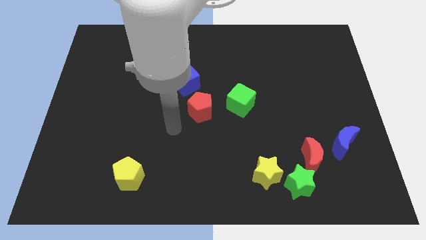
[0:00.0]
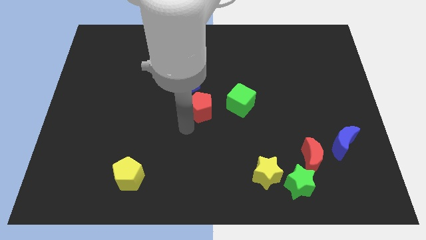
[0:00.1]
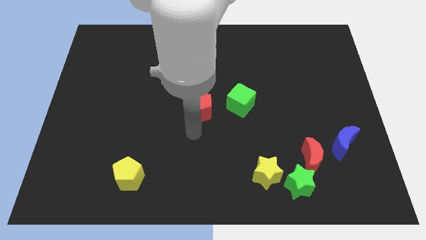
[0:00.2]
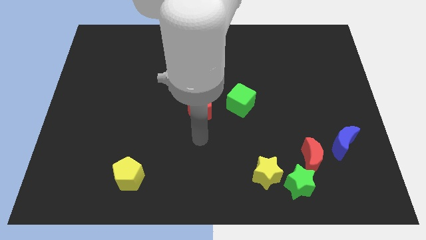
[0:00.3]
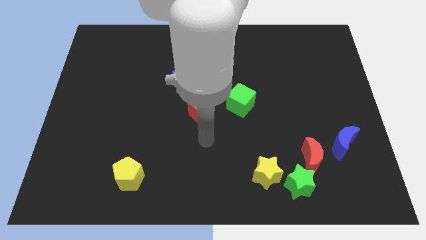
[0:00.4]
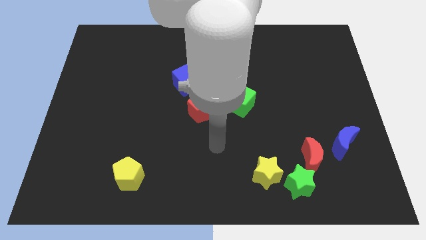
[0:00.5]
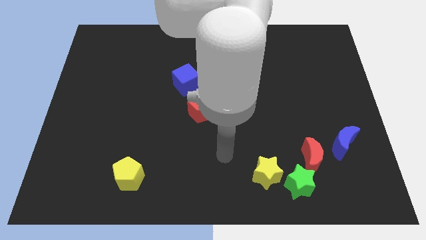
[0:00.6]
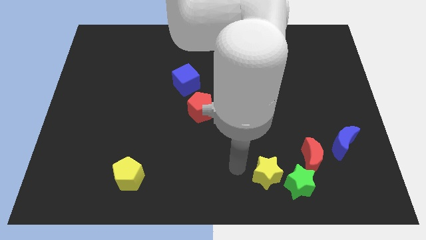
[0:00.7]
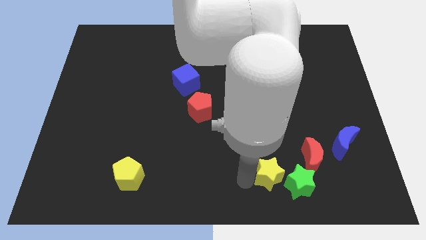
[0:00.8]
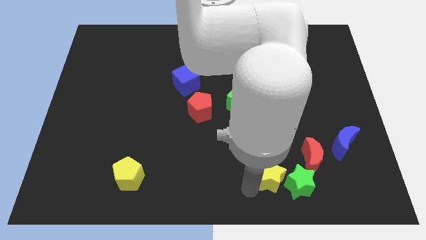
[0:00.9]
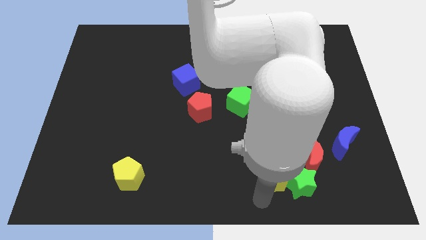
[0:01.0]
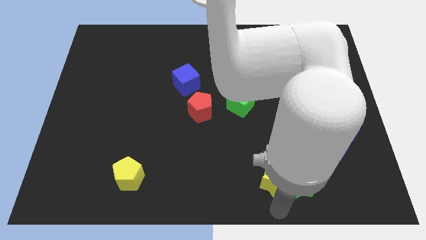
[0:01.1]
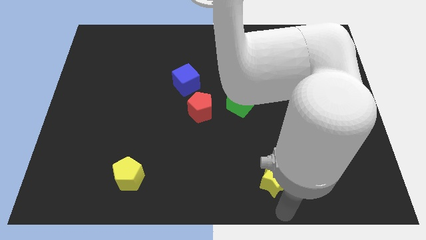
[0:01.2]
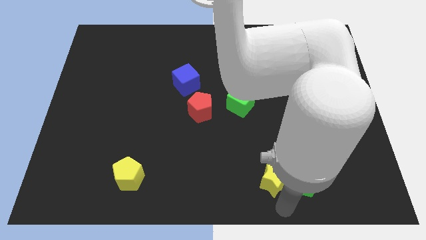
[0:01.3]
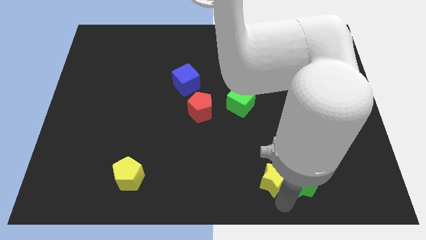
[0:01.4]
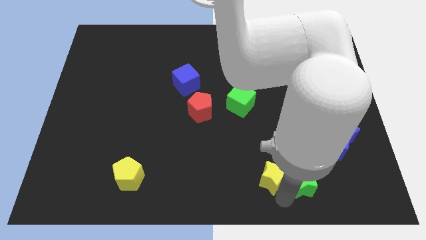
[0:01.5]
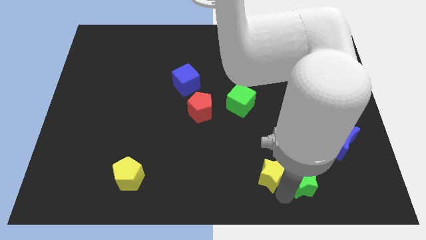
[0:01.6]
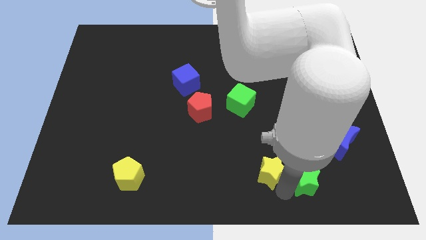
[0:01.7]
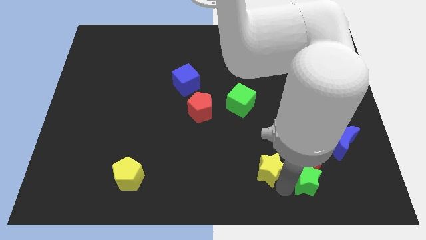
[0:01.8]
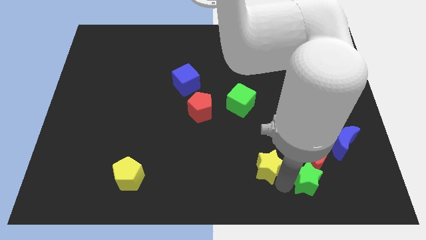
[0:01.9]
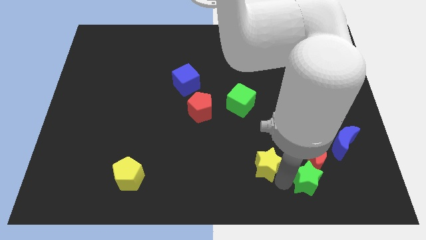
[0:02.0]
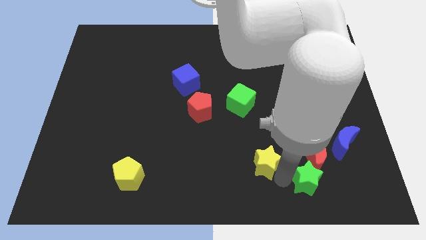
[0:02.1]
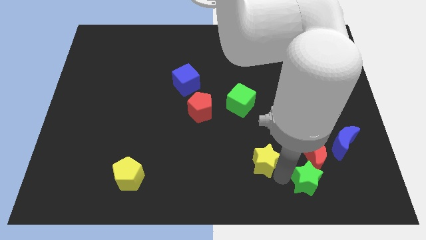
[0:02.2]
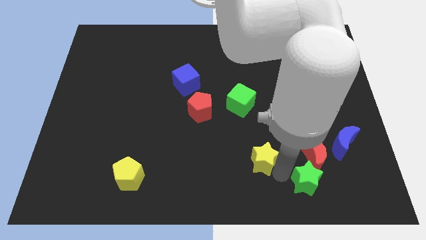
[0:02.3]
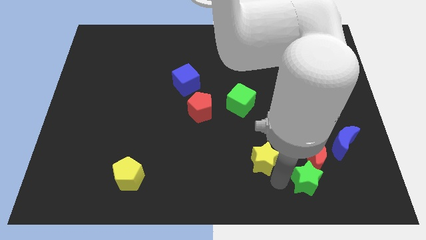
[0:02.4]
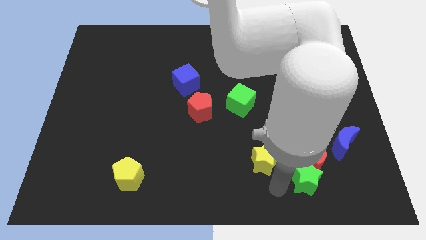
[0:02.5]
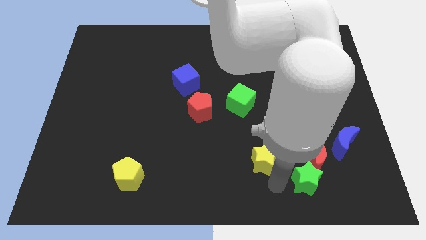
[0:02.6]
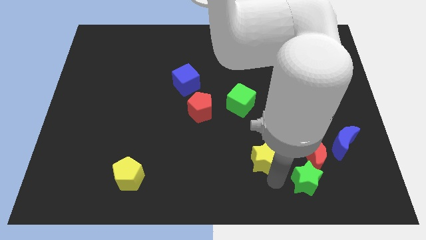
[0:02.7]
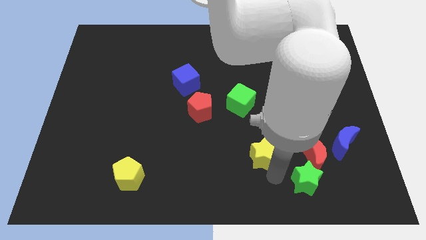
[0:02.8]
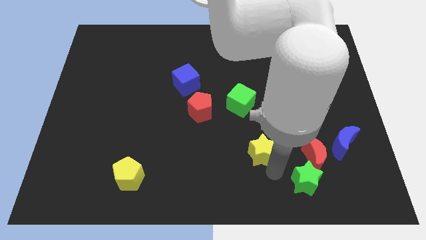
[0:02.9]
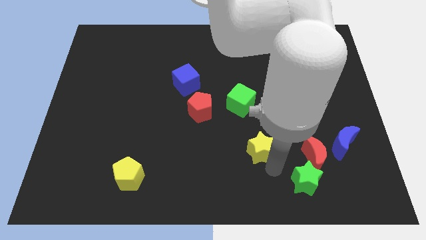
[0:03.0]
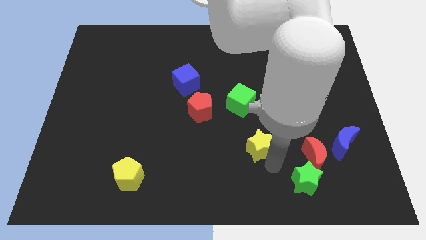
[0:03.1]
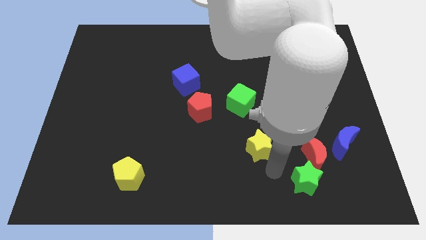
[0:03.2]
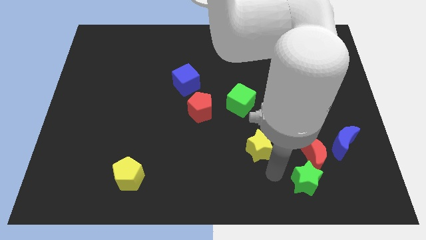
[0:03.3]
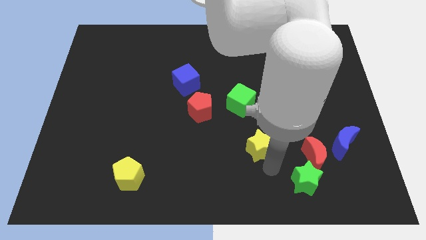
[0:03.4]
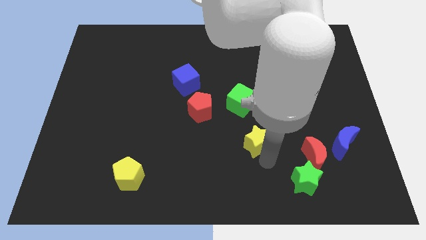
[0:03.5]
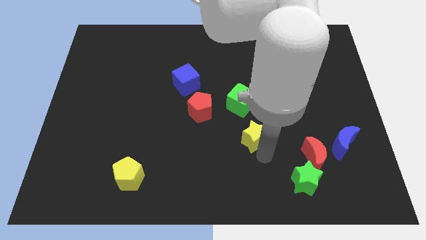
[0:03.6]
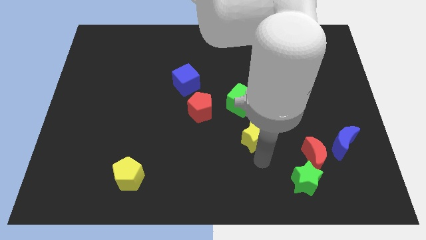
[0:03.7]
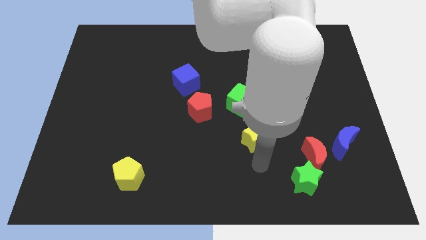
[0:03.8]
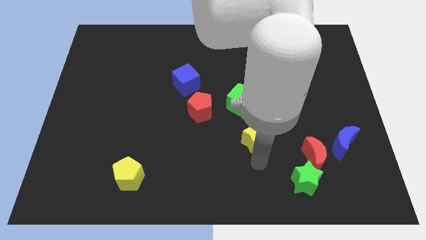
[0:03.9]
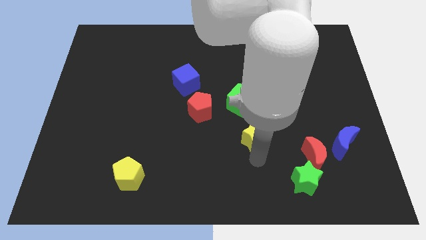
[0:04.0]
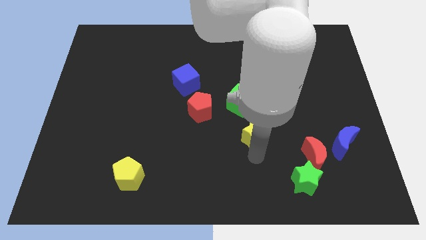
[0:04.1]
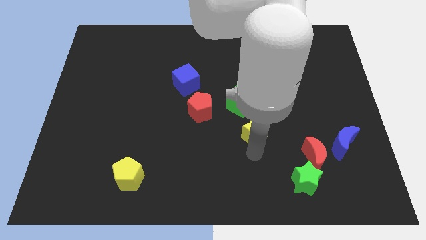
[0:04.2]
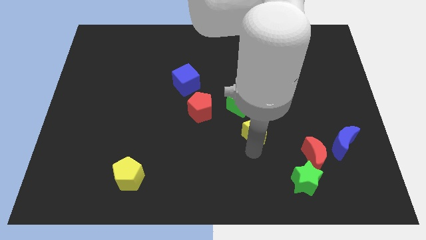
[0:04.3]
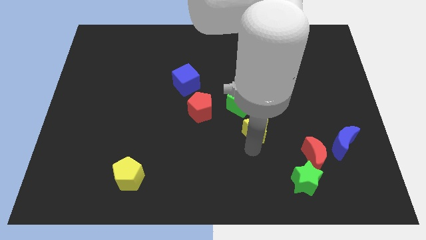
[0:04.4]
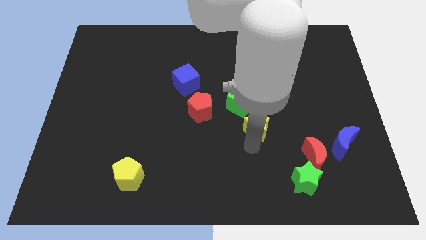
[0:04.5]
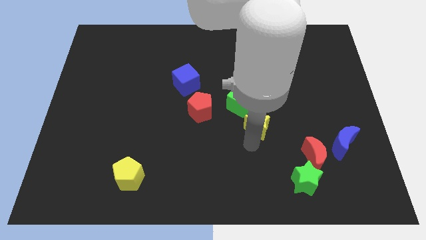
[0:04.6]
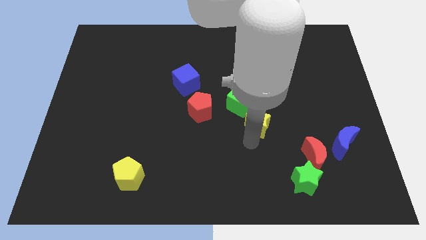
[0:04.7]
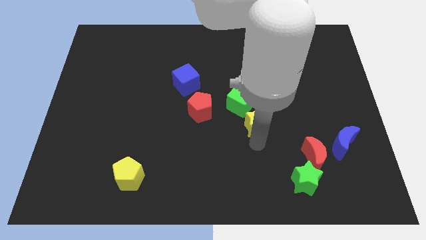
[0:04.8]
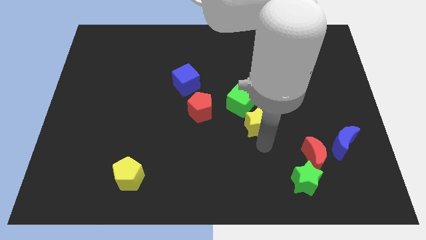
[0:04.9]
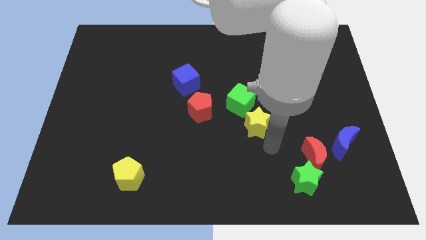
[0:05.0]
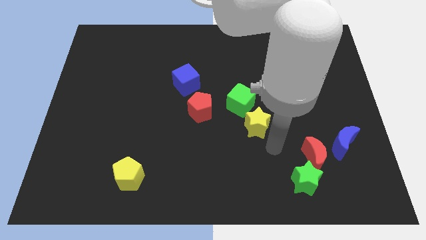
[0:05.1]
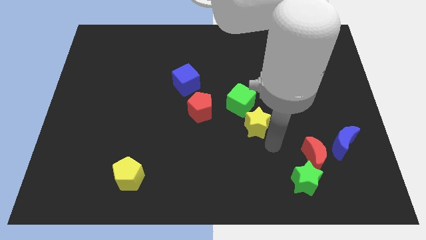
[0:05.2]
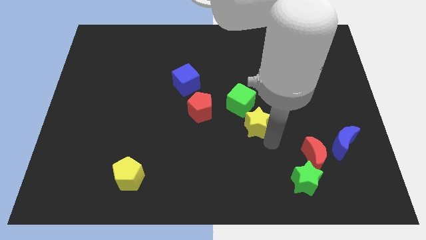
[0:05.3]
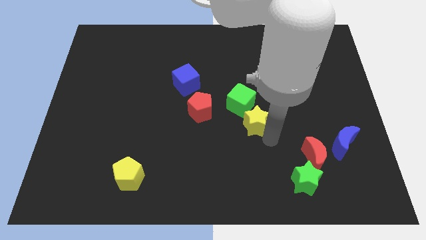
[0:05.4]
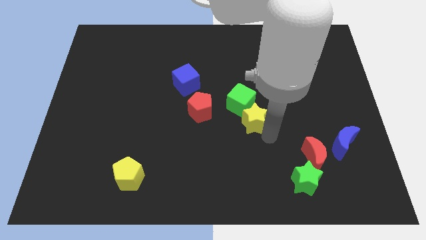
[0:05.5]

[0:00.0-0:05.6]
move the yellow star next to the green cube

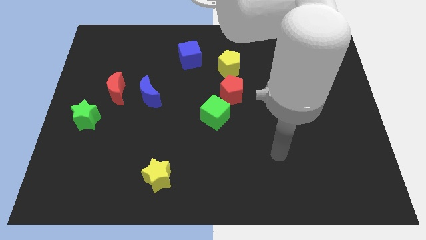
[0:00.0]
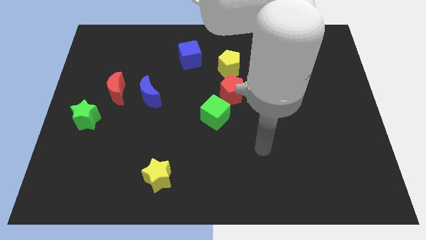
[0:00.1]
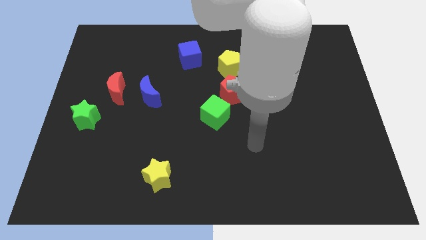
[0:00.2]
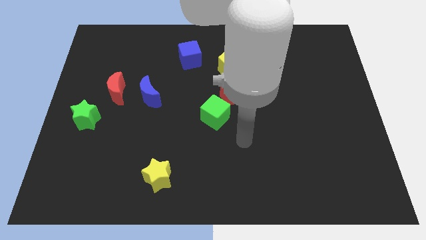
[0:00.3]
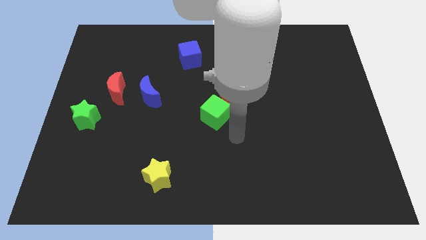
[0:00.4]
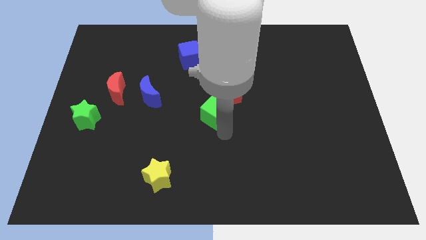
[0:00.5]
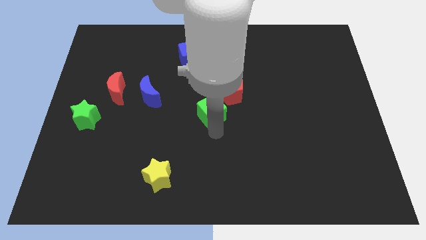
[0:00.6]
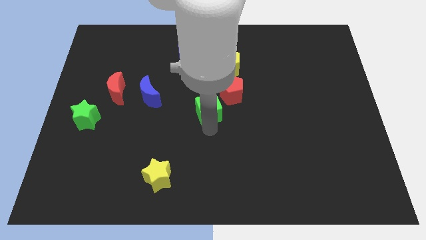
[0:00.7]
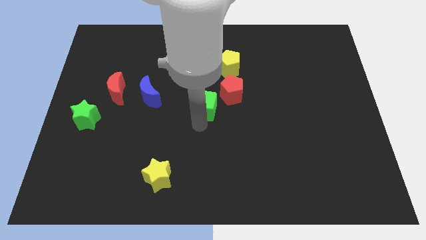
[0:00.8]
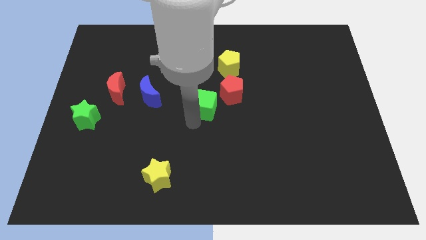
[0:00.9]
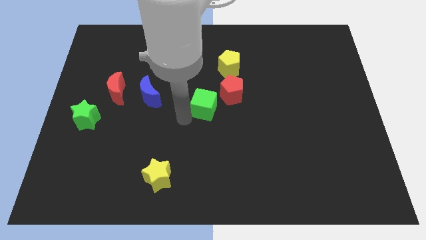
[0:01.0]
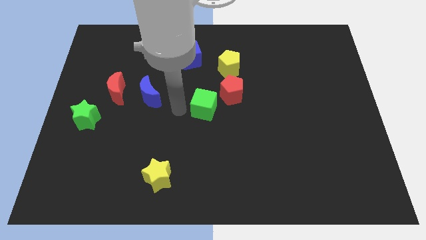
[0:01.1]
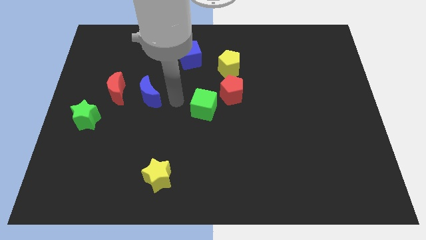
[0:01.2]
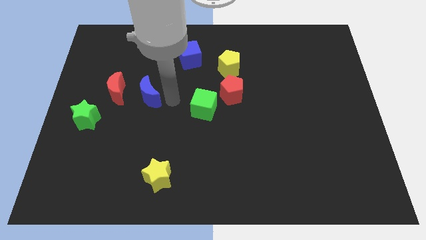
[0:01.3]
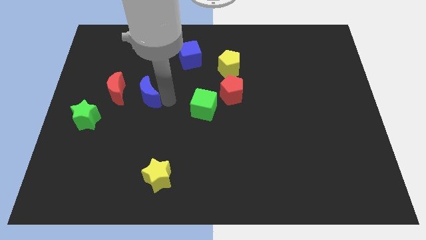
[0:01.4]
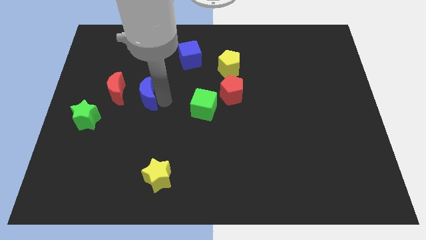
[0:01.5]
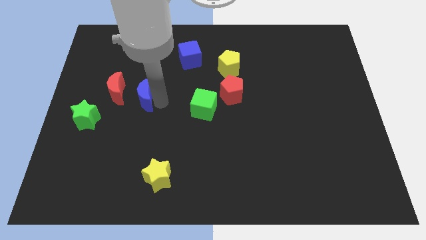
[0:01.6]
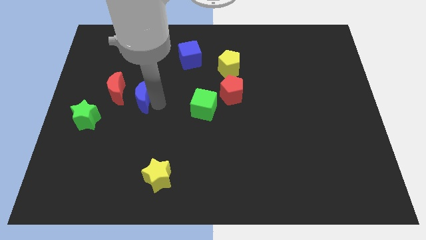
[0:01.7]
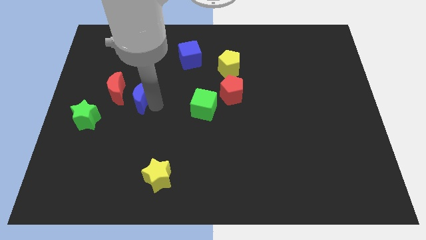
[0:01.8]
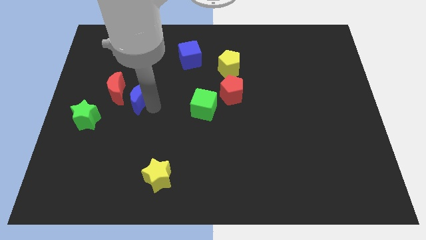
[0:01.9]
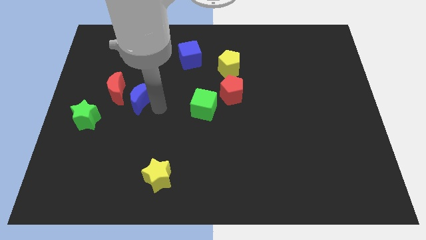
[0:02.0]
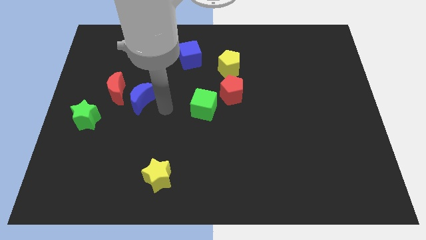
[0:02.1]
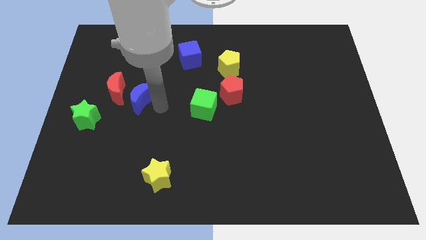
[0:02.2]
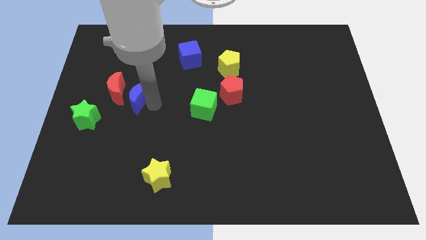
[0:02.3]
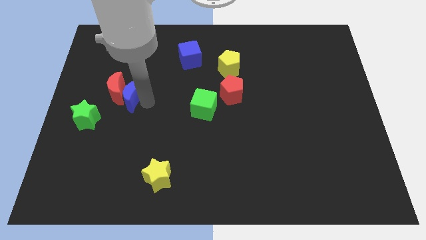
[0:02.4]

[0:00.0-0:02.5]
move the blue moon towards the red moon
